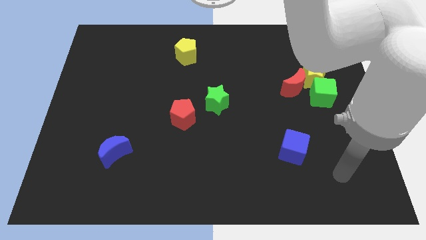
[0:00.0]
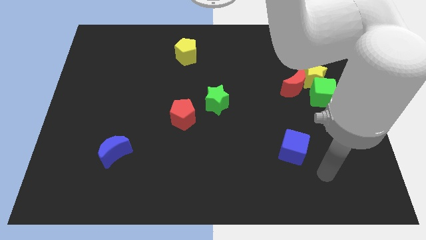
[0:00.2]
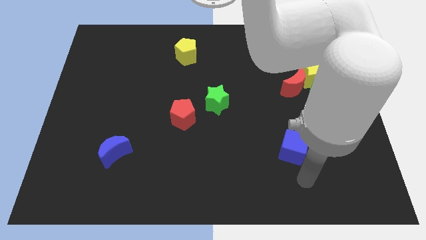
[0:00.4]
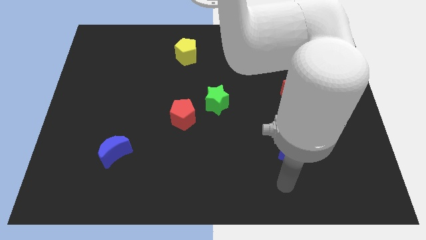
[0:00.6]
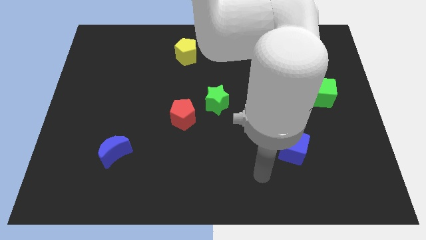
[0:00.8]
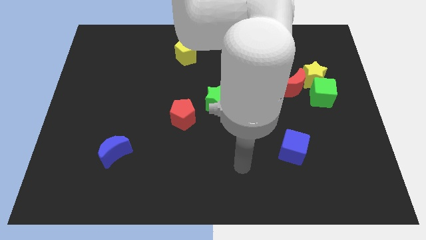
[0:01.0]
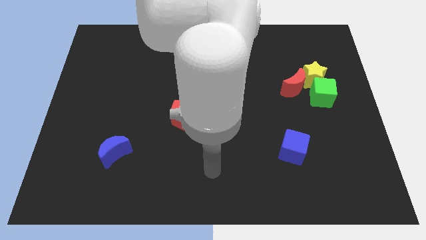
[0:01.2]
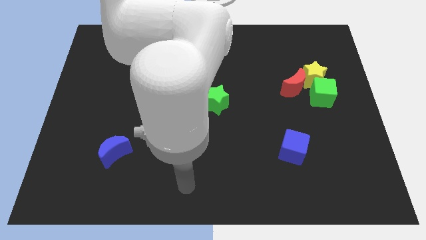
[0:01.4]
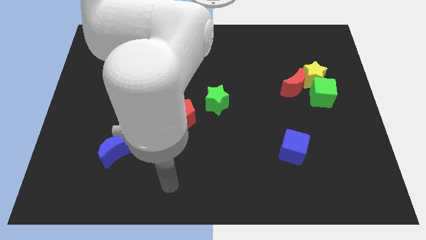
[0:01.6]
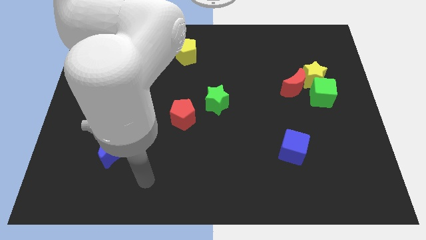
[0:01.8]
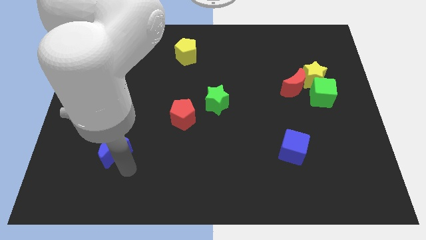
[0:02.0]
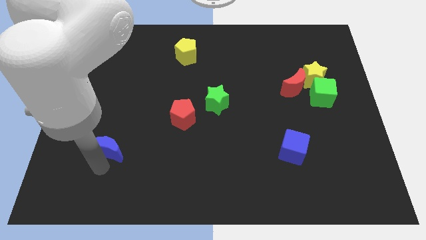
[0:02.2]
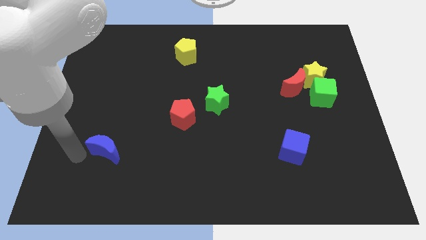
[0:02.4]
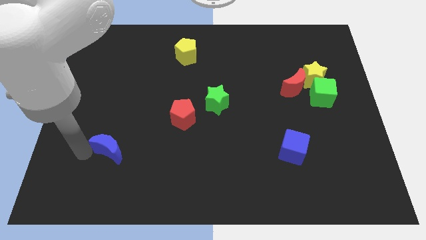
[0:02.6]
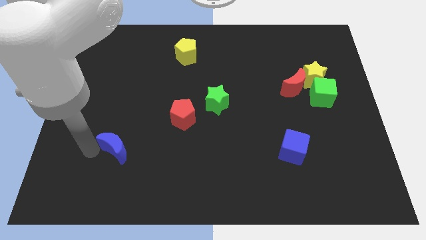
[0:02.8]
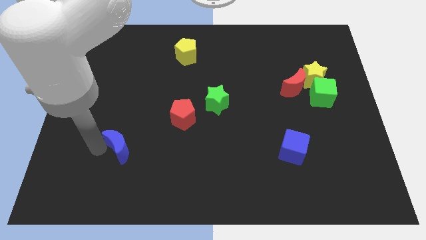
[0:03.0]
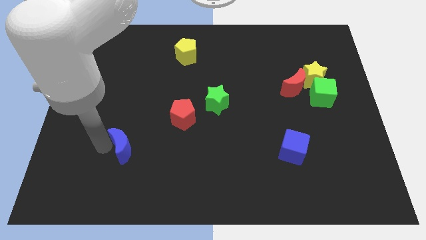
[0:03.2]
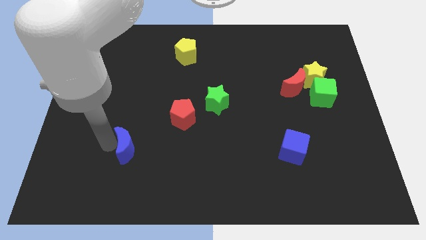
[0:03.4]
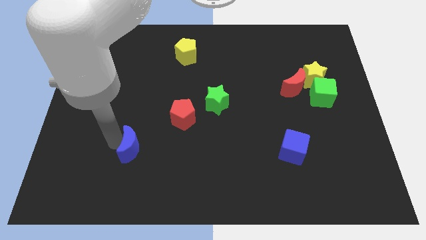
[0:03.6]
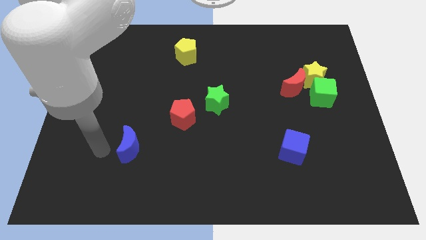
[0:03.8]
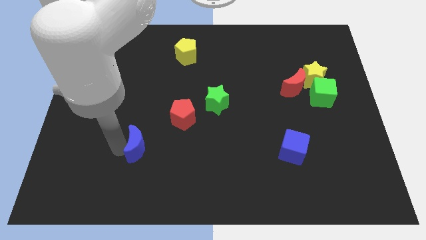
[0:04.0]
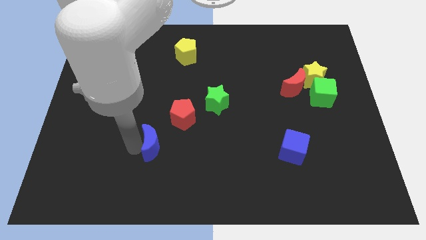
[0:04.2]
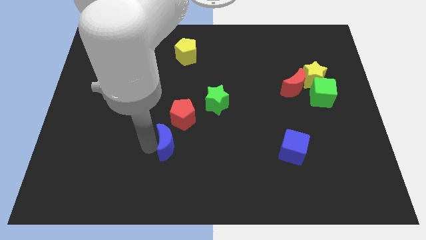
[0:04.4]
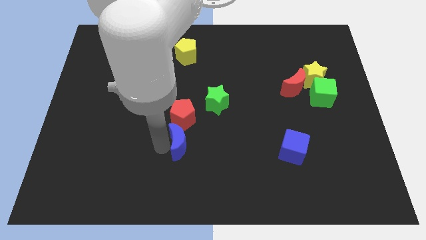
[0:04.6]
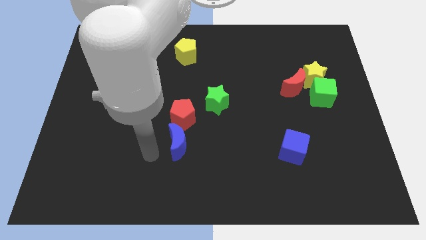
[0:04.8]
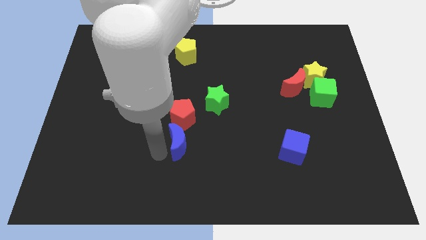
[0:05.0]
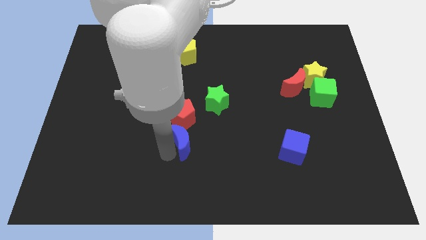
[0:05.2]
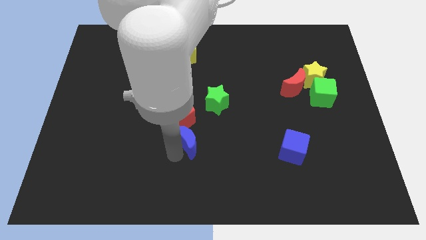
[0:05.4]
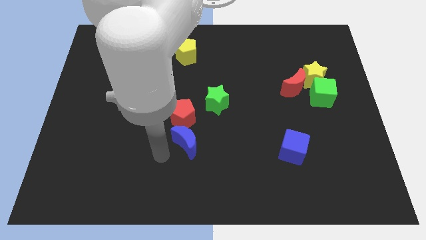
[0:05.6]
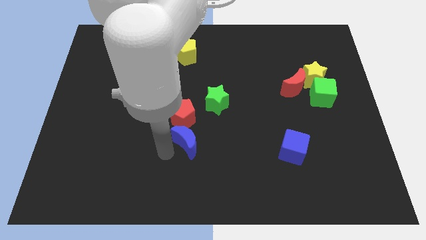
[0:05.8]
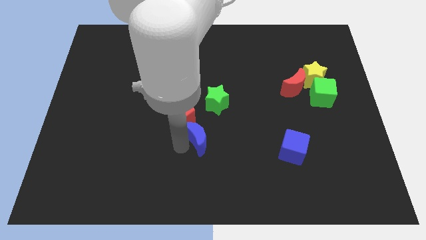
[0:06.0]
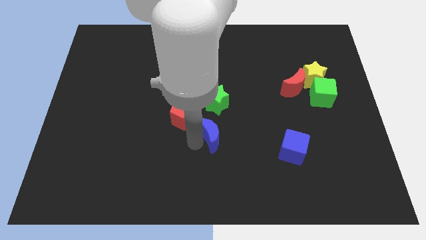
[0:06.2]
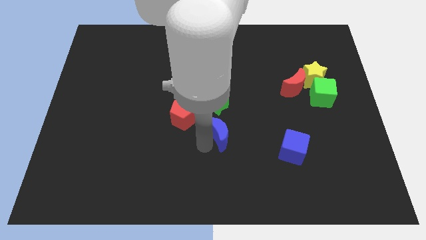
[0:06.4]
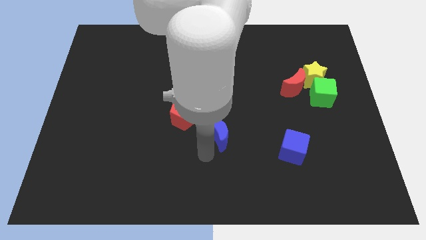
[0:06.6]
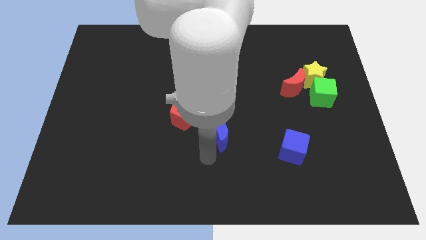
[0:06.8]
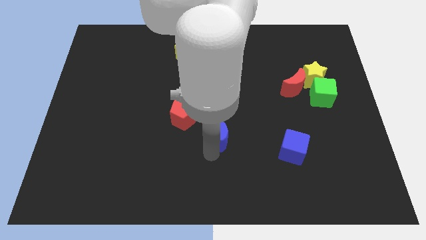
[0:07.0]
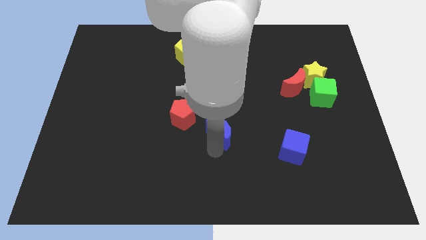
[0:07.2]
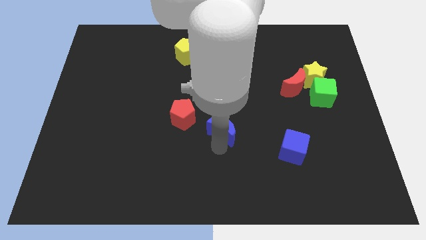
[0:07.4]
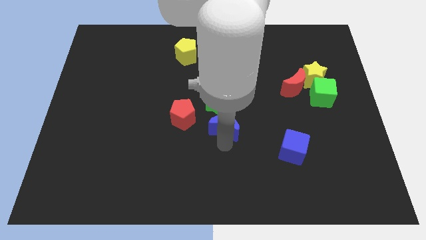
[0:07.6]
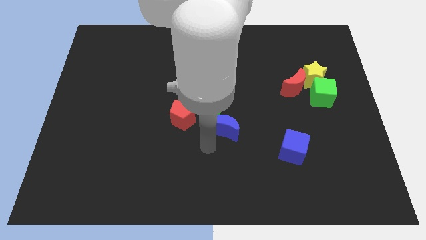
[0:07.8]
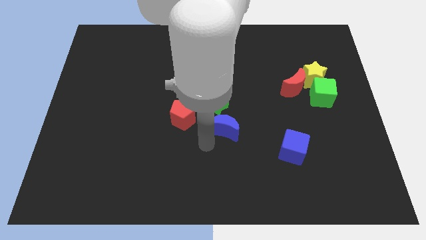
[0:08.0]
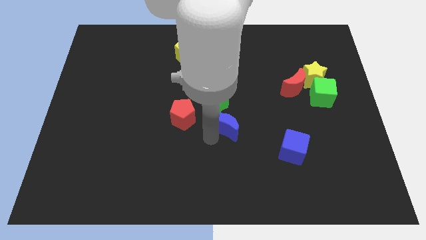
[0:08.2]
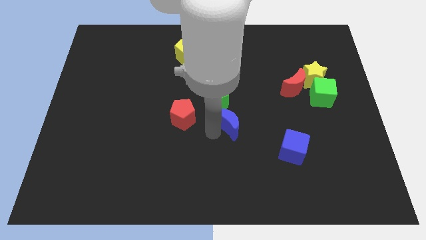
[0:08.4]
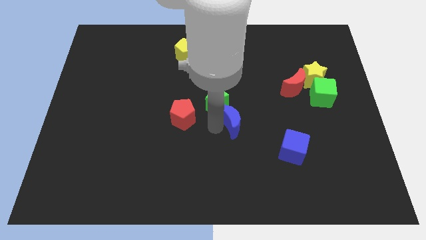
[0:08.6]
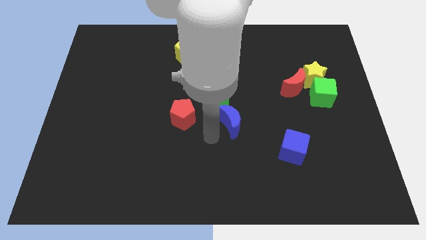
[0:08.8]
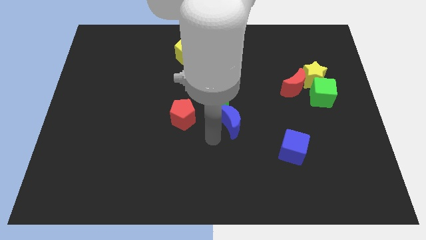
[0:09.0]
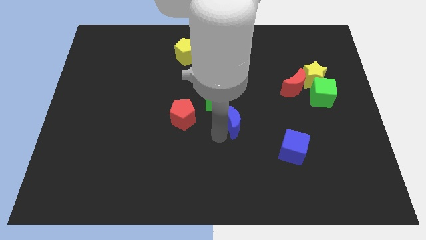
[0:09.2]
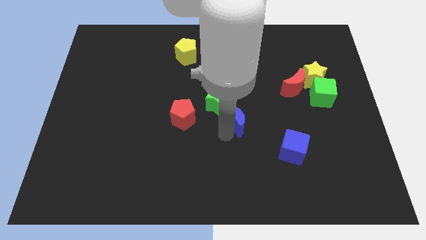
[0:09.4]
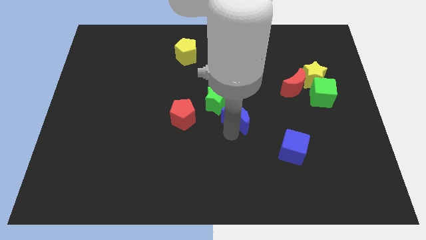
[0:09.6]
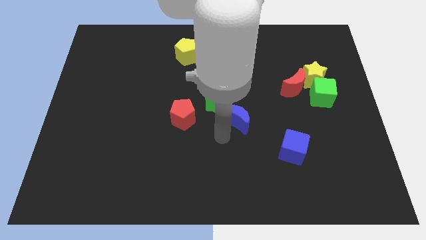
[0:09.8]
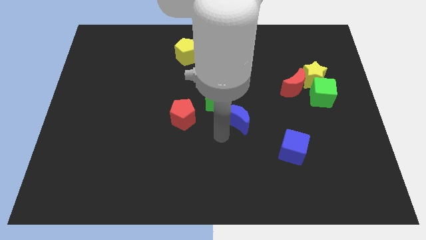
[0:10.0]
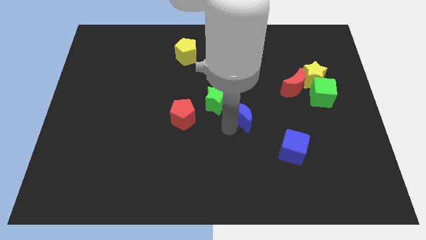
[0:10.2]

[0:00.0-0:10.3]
move the blue moon to the right side of the green star

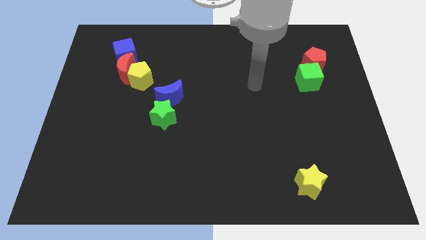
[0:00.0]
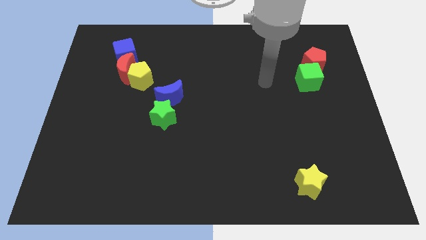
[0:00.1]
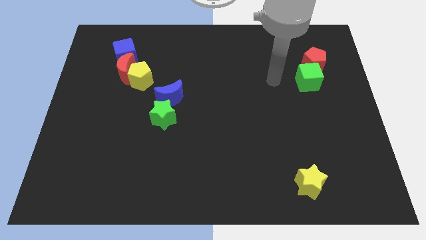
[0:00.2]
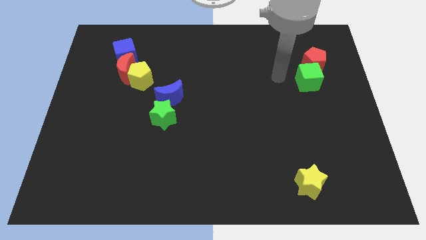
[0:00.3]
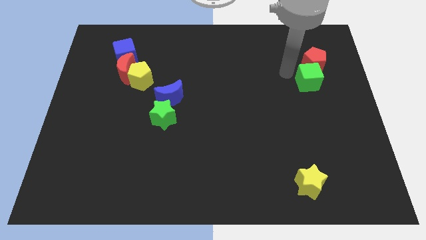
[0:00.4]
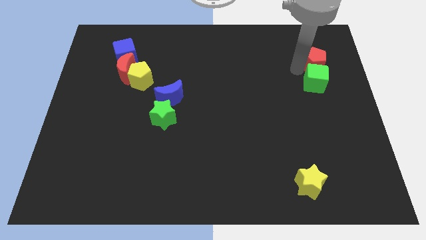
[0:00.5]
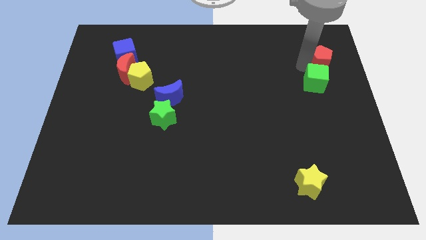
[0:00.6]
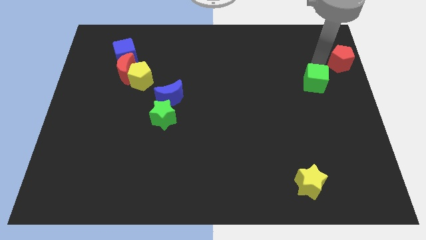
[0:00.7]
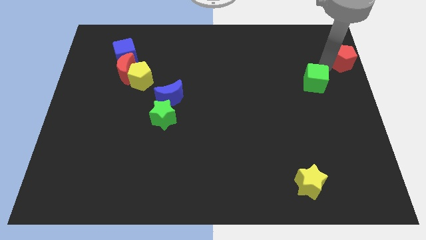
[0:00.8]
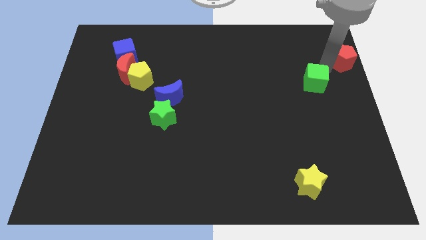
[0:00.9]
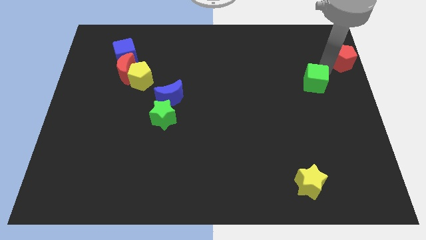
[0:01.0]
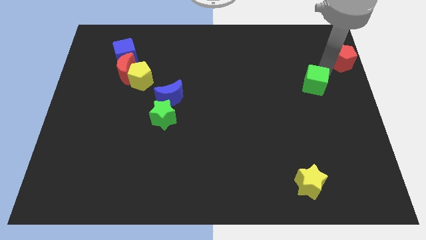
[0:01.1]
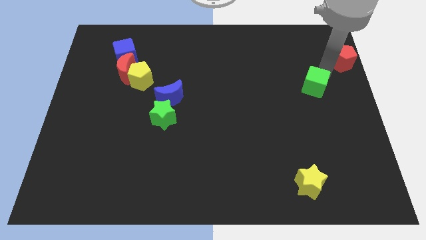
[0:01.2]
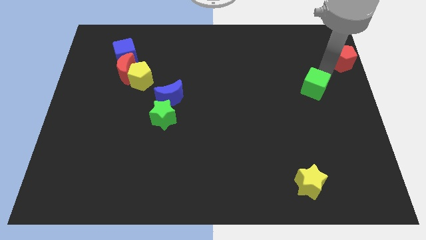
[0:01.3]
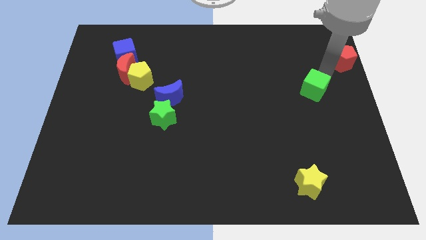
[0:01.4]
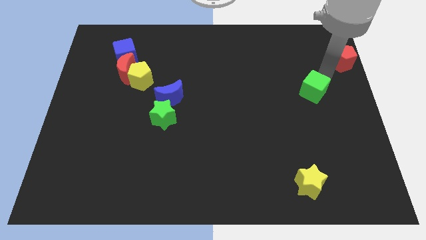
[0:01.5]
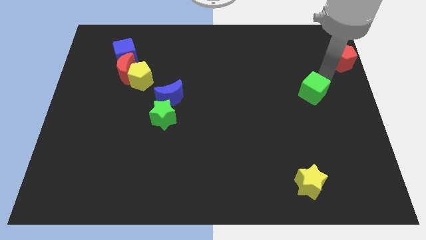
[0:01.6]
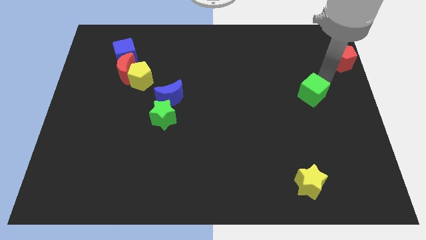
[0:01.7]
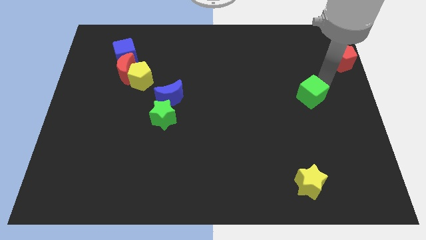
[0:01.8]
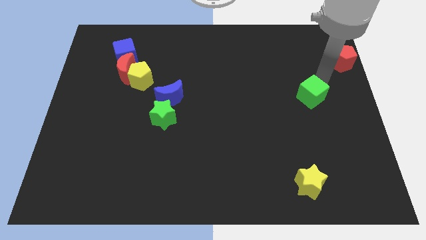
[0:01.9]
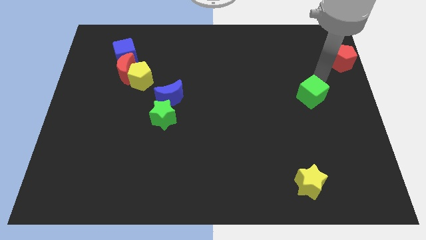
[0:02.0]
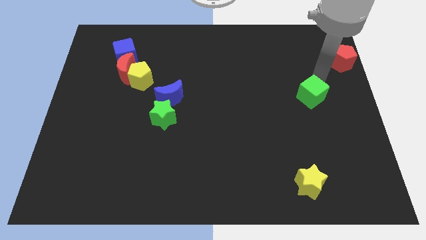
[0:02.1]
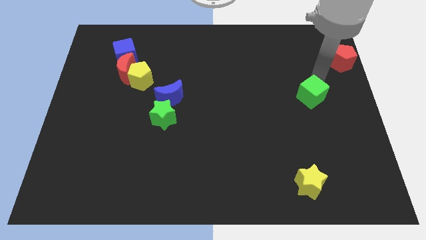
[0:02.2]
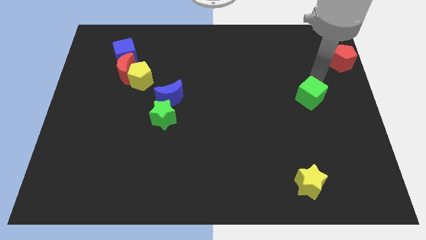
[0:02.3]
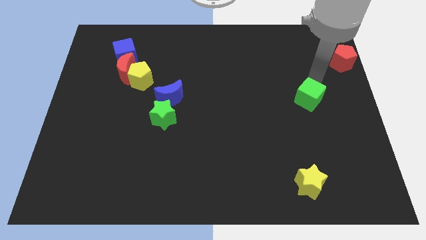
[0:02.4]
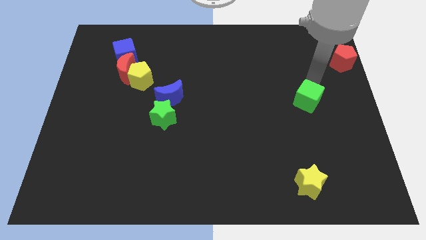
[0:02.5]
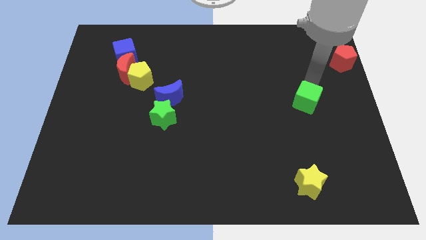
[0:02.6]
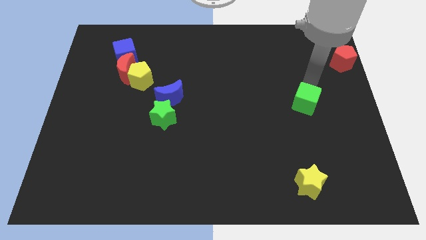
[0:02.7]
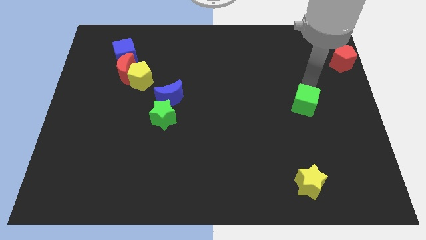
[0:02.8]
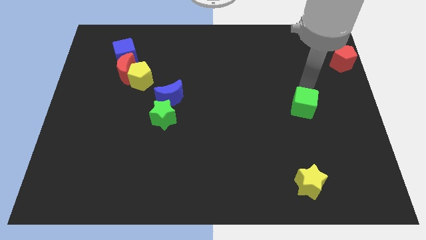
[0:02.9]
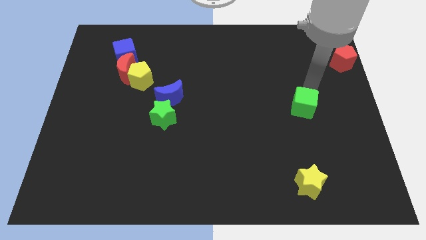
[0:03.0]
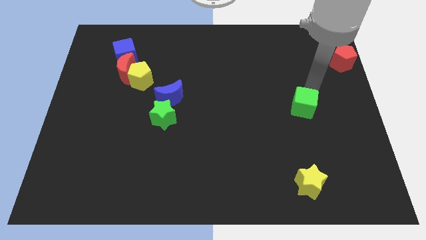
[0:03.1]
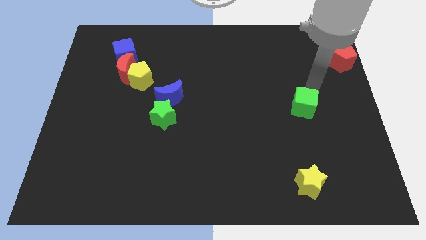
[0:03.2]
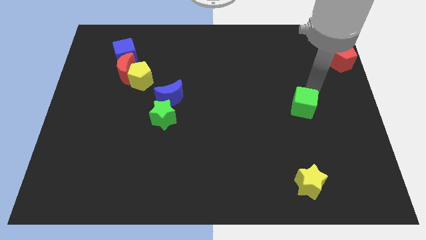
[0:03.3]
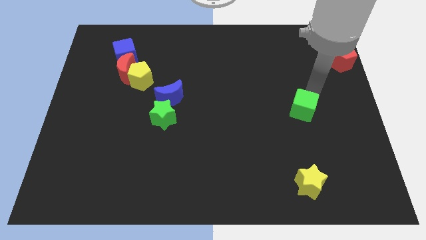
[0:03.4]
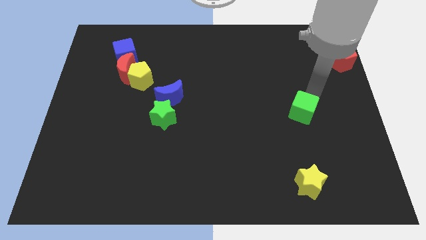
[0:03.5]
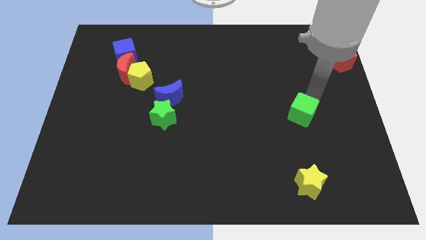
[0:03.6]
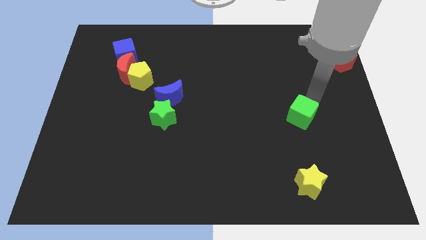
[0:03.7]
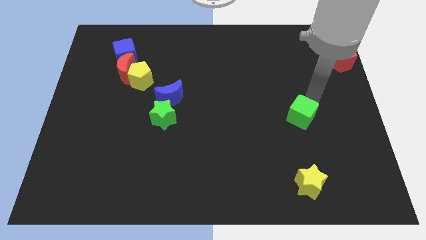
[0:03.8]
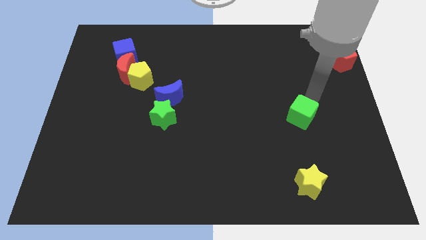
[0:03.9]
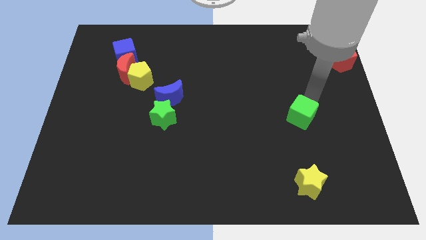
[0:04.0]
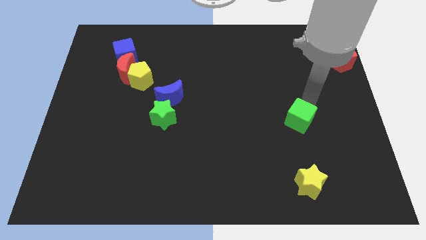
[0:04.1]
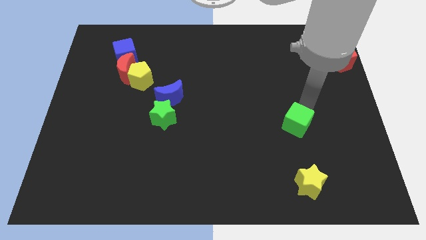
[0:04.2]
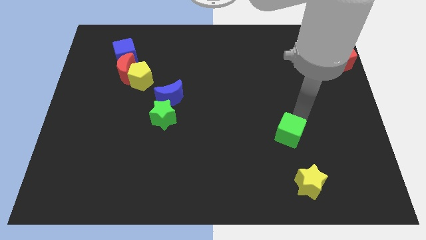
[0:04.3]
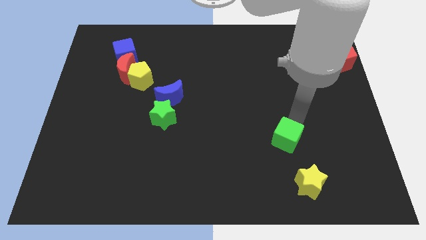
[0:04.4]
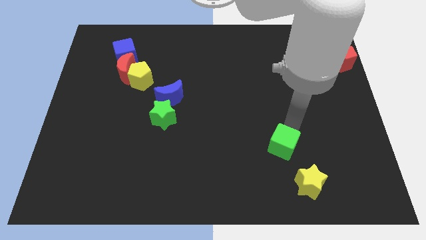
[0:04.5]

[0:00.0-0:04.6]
slide the green cube to the top left of the yellow star
